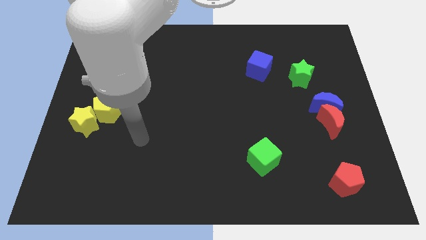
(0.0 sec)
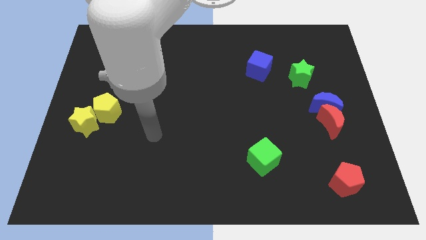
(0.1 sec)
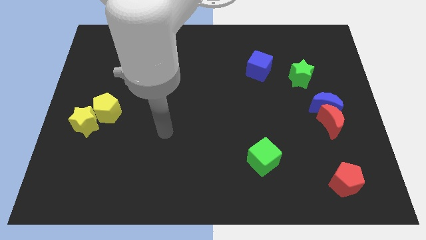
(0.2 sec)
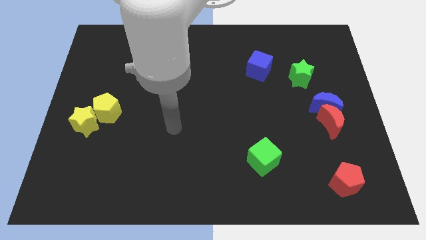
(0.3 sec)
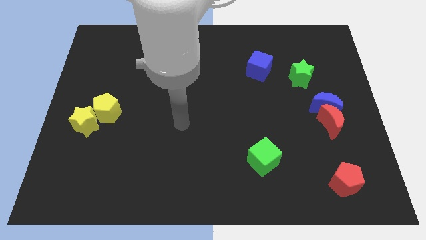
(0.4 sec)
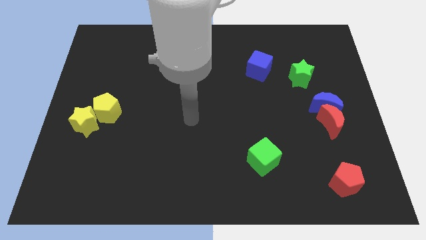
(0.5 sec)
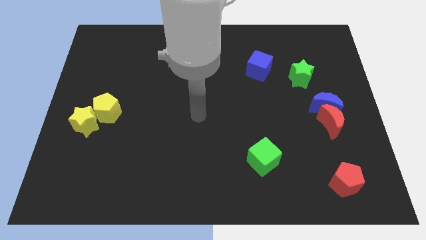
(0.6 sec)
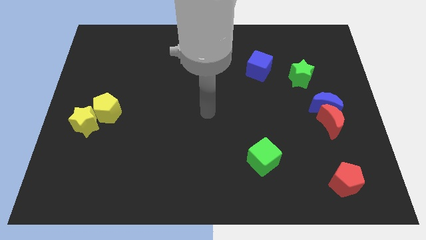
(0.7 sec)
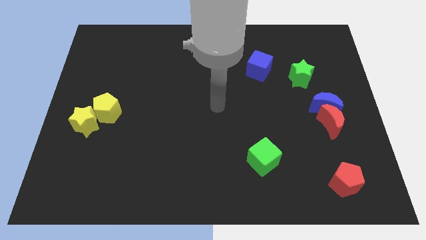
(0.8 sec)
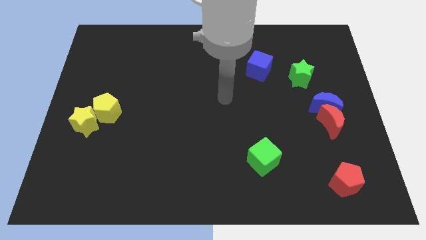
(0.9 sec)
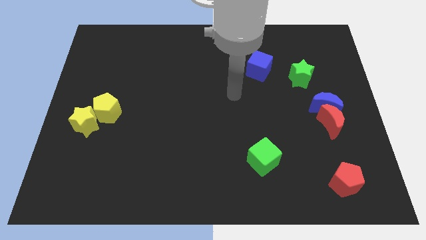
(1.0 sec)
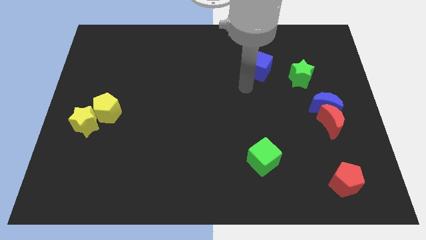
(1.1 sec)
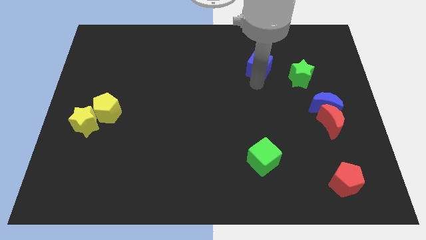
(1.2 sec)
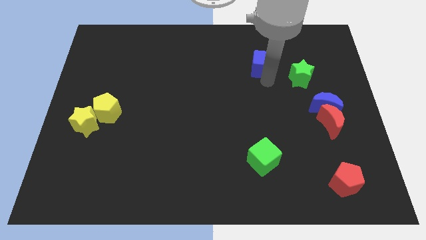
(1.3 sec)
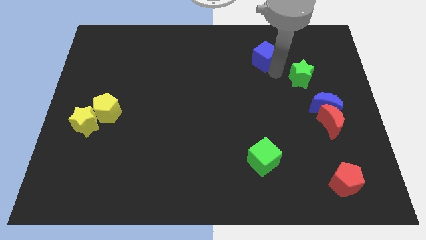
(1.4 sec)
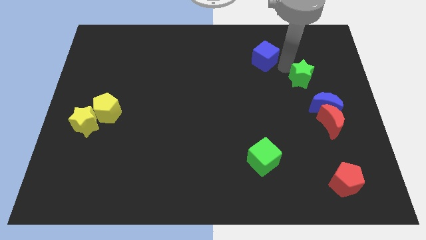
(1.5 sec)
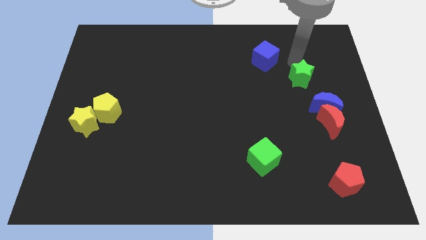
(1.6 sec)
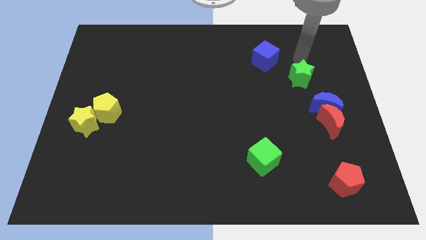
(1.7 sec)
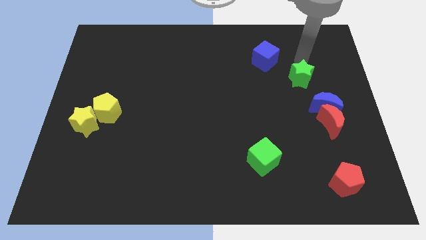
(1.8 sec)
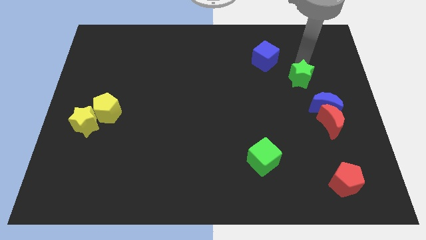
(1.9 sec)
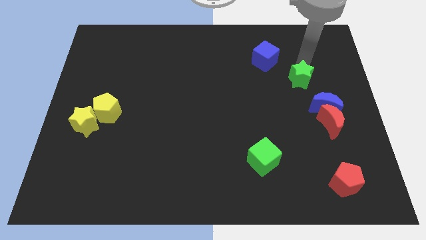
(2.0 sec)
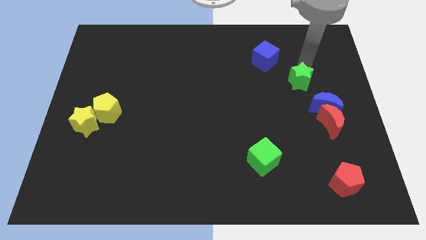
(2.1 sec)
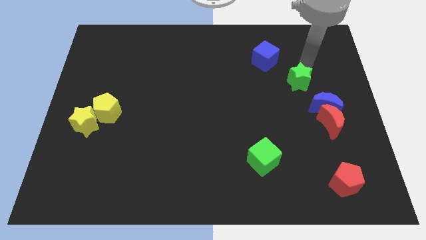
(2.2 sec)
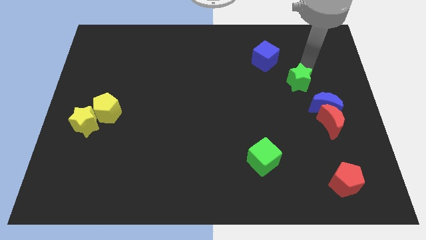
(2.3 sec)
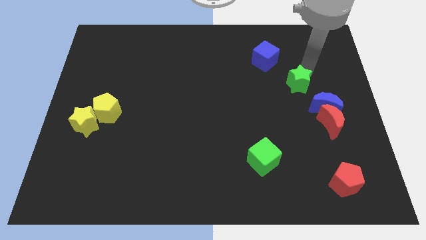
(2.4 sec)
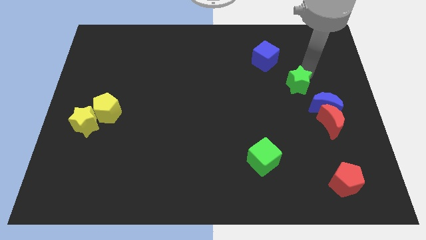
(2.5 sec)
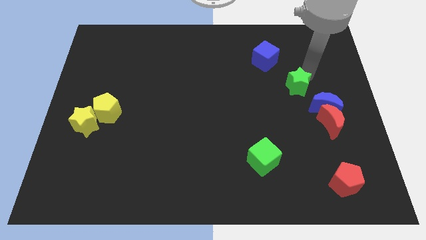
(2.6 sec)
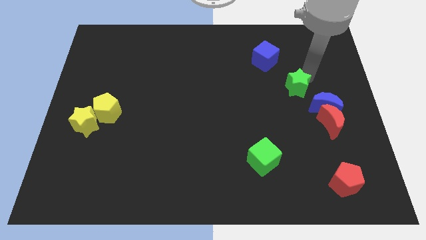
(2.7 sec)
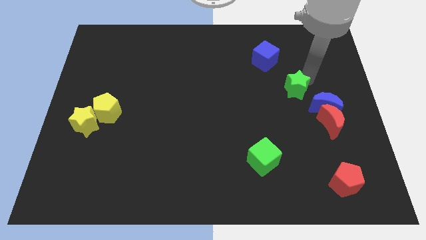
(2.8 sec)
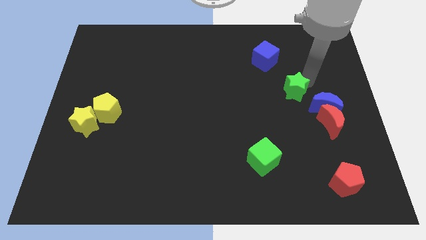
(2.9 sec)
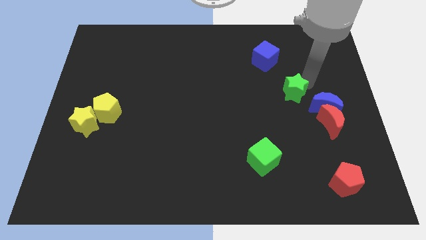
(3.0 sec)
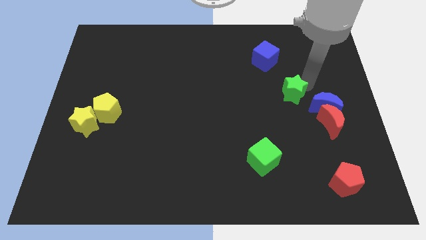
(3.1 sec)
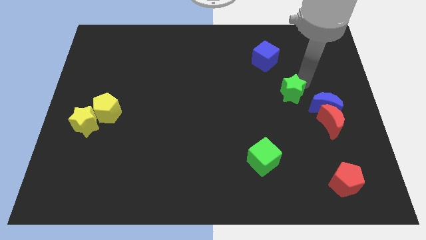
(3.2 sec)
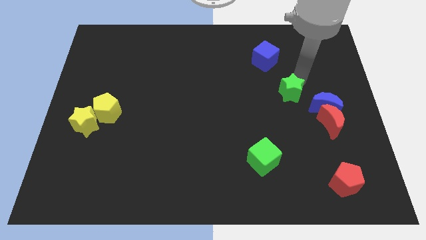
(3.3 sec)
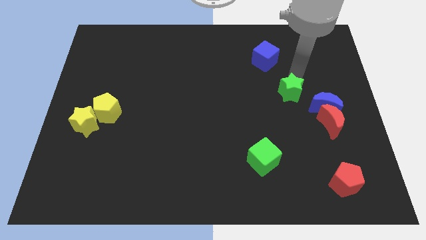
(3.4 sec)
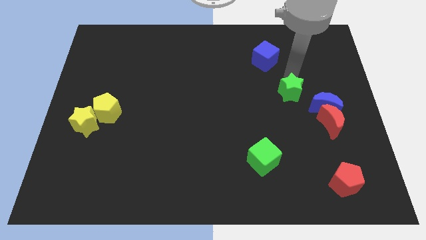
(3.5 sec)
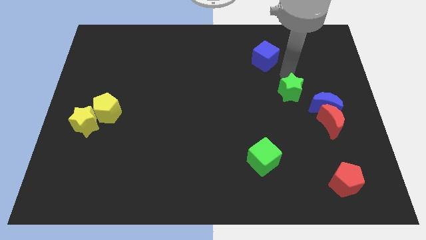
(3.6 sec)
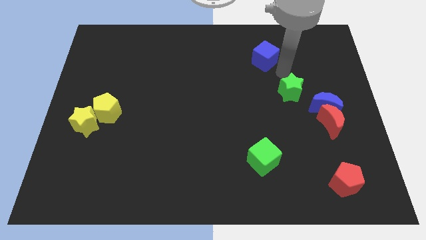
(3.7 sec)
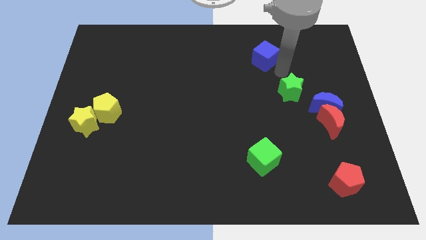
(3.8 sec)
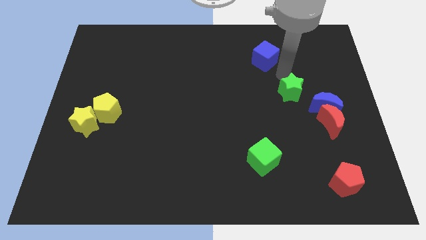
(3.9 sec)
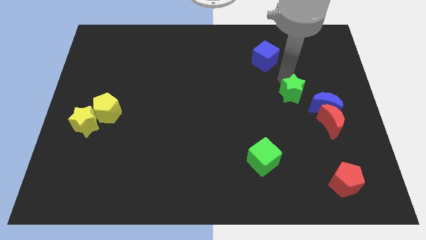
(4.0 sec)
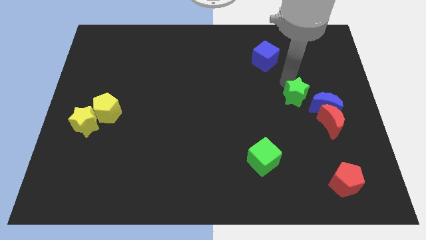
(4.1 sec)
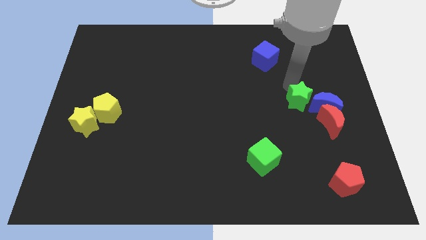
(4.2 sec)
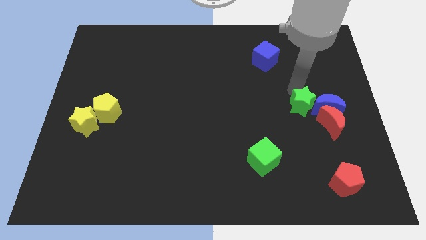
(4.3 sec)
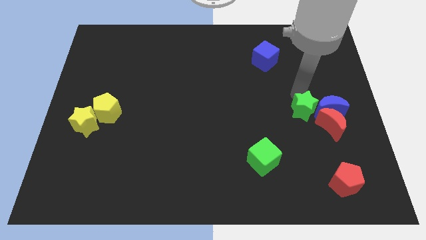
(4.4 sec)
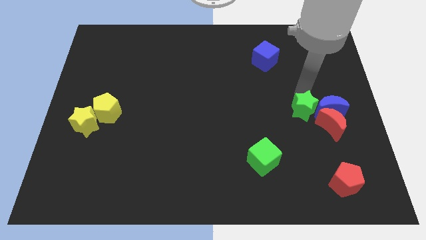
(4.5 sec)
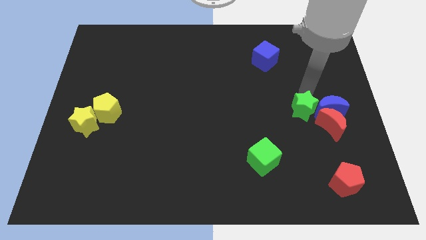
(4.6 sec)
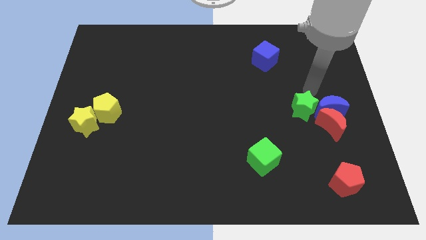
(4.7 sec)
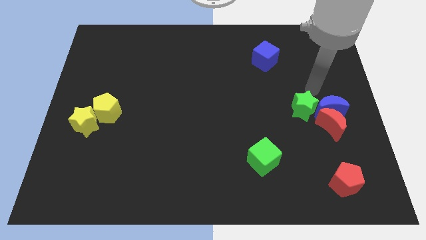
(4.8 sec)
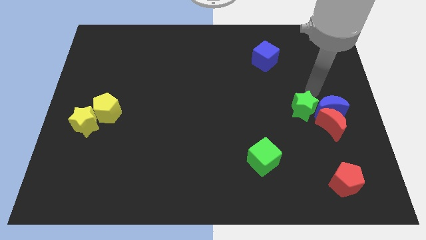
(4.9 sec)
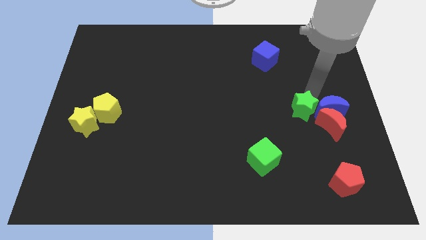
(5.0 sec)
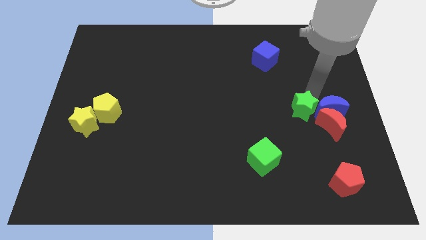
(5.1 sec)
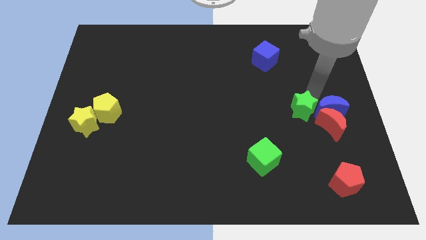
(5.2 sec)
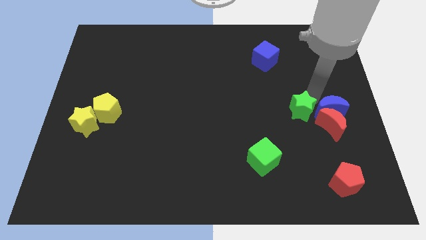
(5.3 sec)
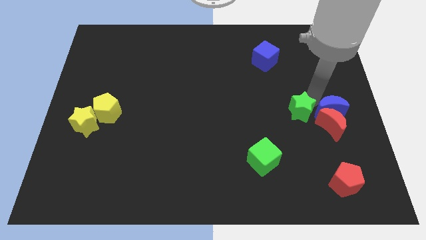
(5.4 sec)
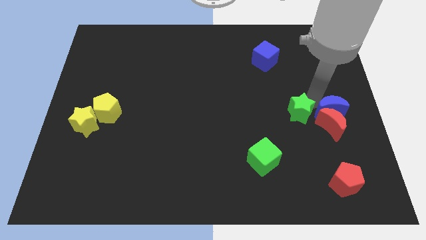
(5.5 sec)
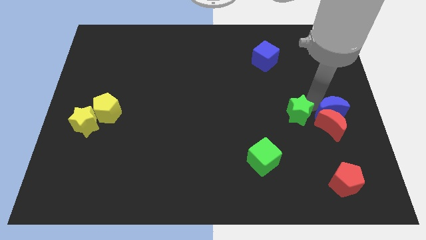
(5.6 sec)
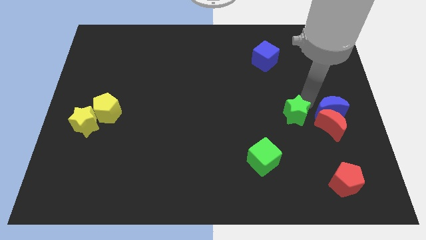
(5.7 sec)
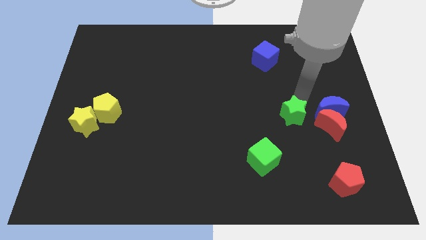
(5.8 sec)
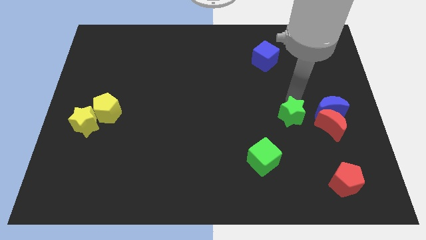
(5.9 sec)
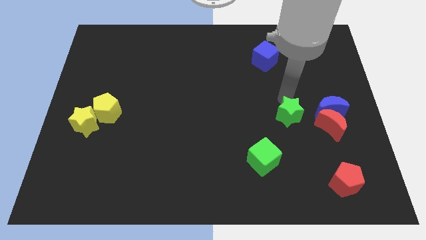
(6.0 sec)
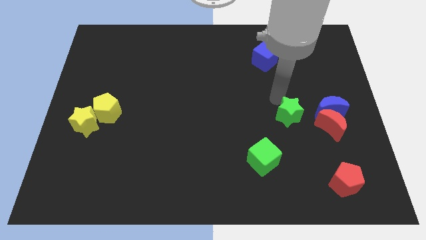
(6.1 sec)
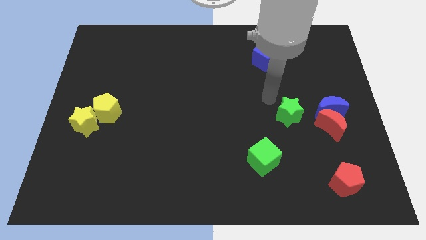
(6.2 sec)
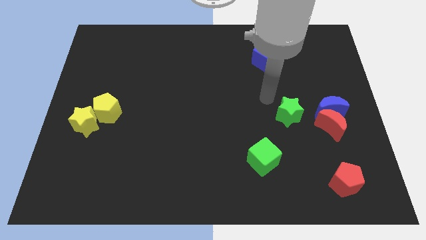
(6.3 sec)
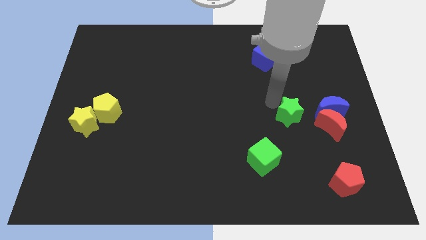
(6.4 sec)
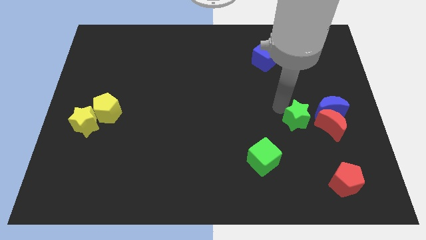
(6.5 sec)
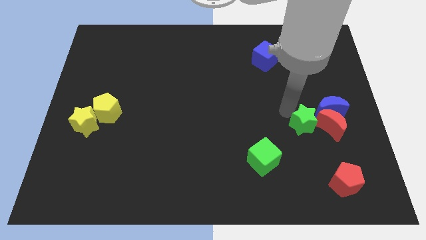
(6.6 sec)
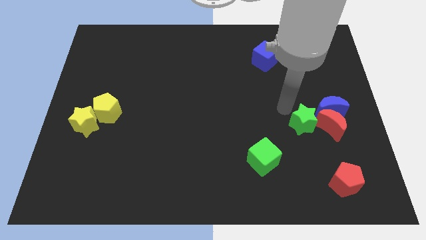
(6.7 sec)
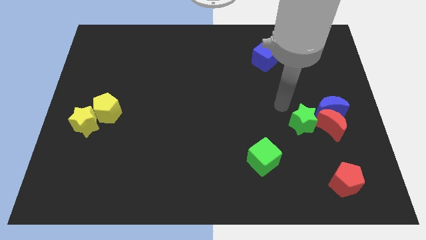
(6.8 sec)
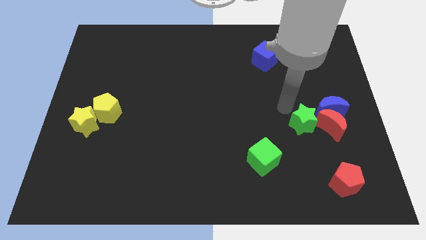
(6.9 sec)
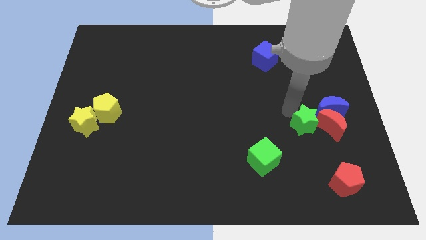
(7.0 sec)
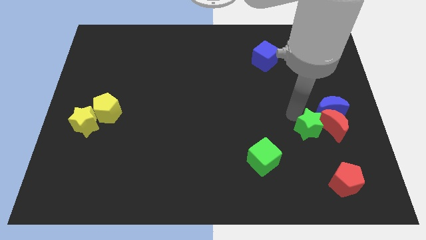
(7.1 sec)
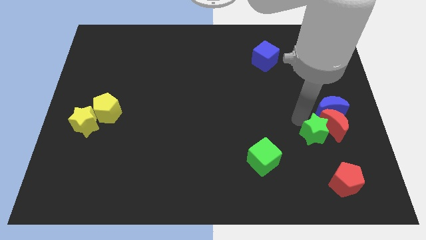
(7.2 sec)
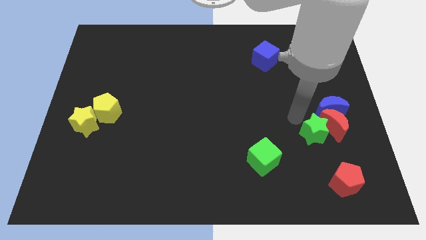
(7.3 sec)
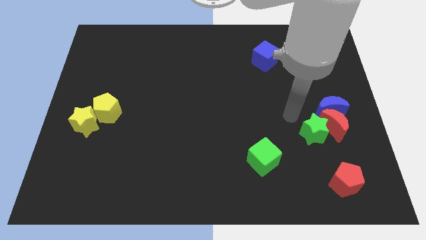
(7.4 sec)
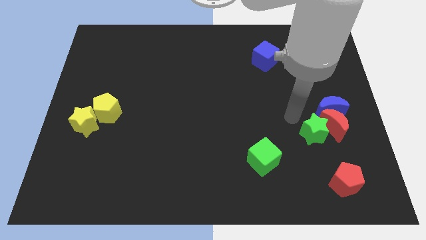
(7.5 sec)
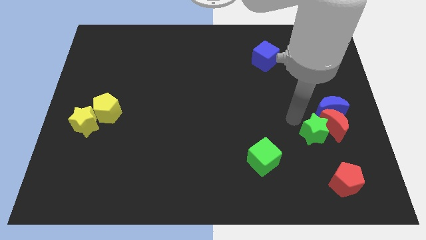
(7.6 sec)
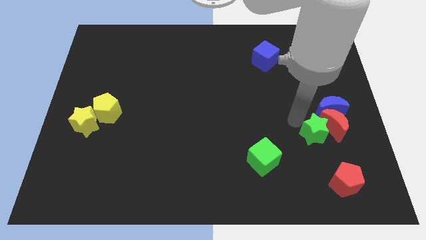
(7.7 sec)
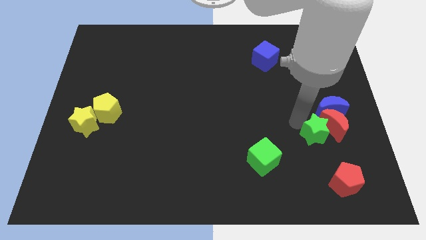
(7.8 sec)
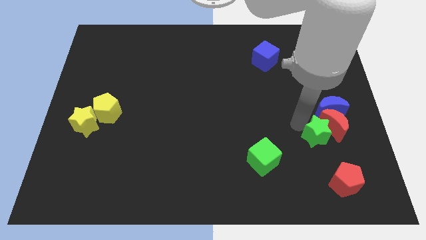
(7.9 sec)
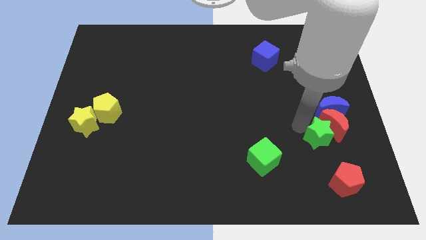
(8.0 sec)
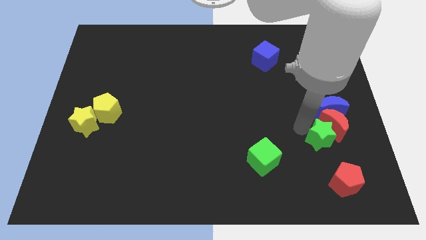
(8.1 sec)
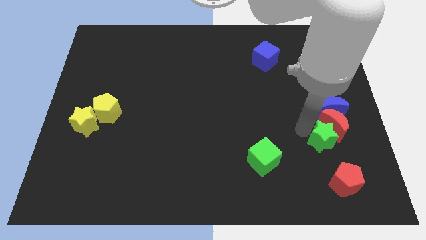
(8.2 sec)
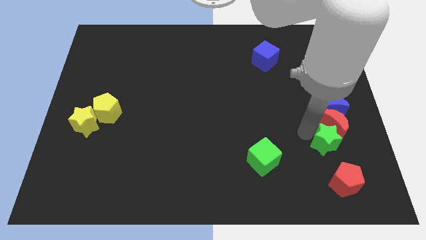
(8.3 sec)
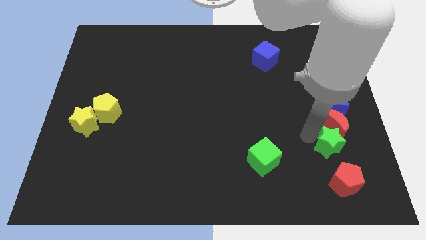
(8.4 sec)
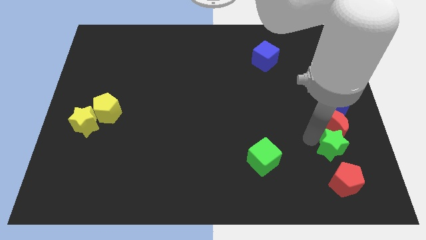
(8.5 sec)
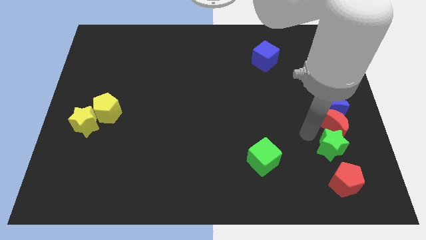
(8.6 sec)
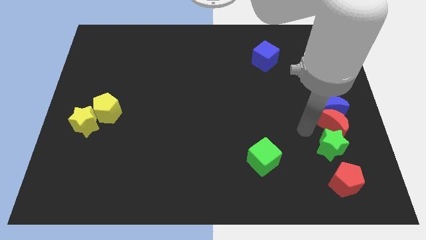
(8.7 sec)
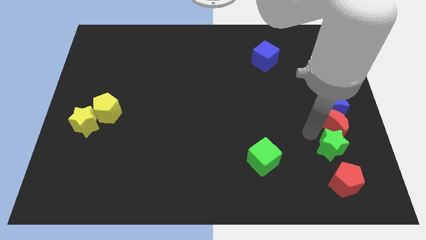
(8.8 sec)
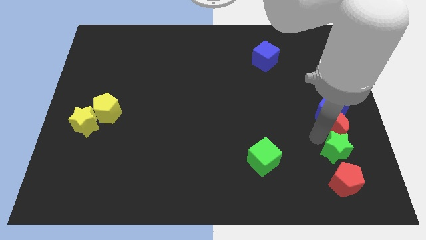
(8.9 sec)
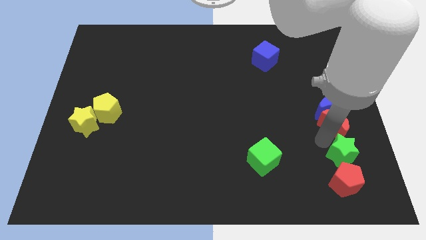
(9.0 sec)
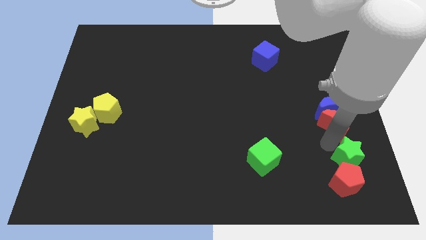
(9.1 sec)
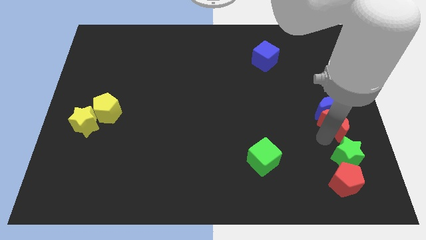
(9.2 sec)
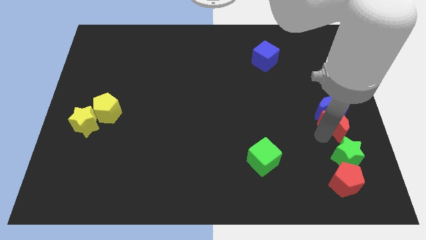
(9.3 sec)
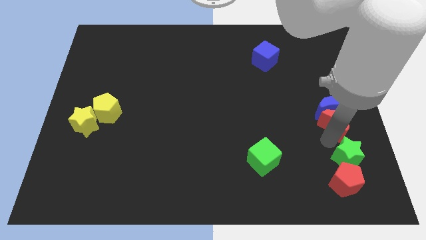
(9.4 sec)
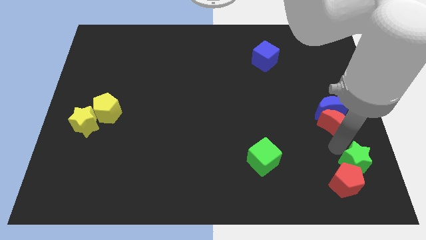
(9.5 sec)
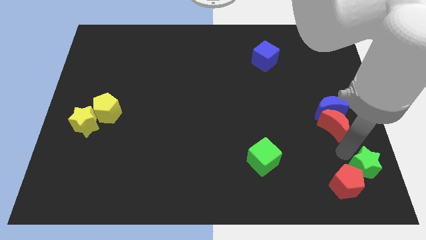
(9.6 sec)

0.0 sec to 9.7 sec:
push the green star to the bottom right
